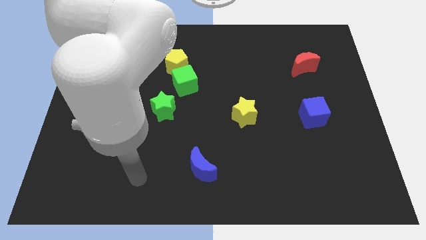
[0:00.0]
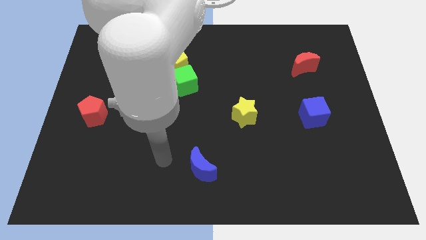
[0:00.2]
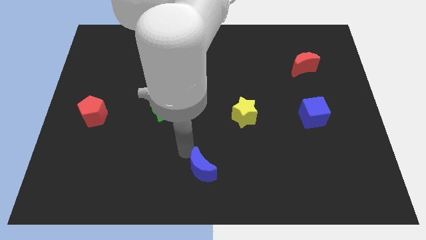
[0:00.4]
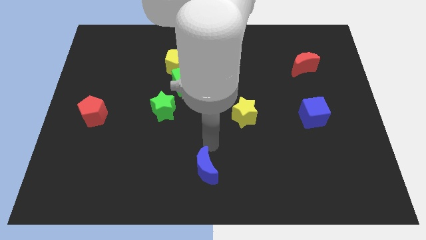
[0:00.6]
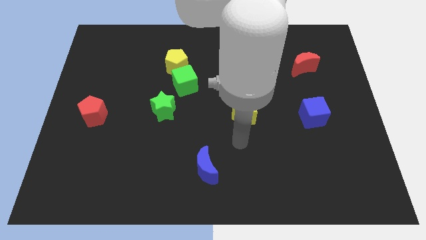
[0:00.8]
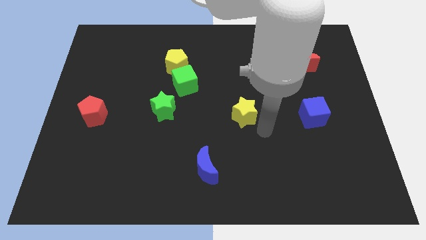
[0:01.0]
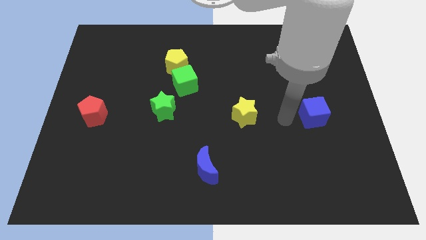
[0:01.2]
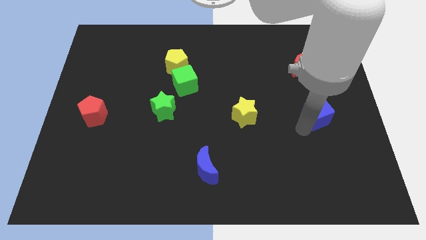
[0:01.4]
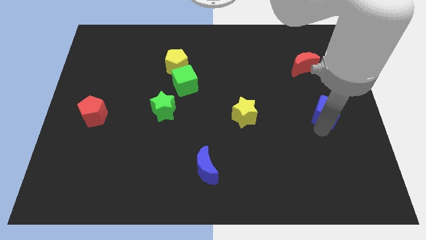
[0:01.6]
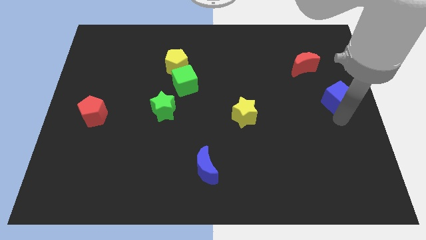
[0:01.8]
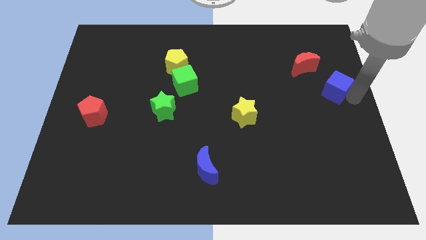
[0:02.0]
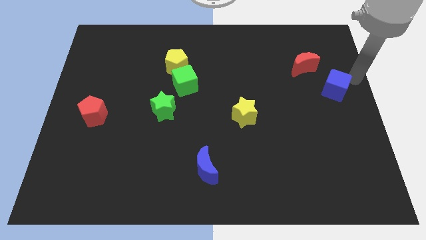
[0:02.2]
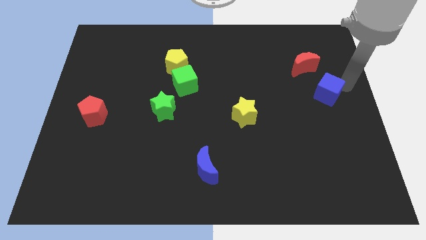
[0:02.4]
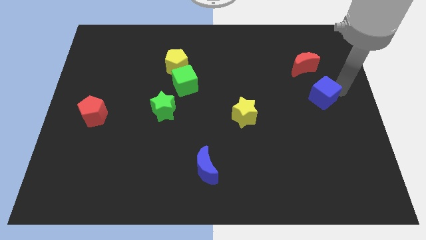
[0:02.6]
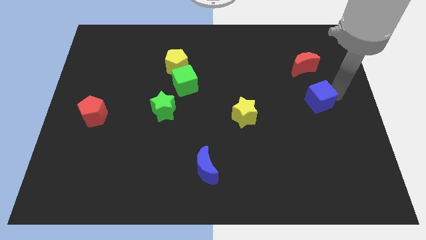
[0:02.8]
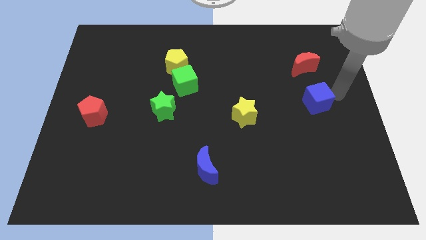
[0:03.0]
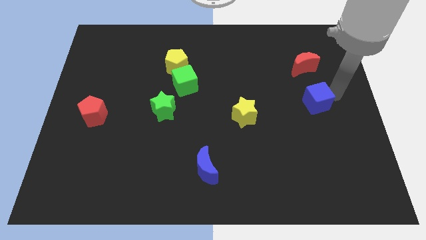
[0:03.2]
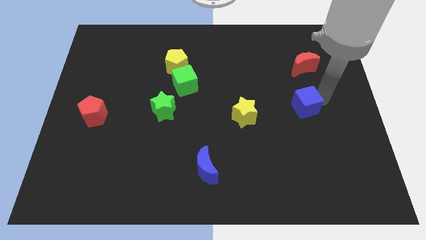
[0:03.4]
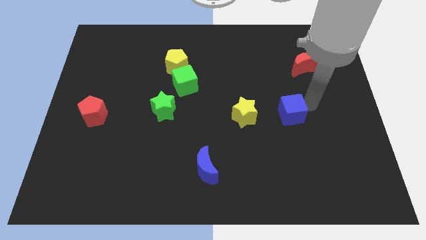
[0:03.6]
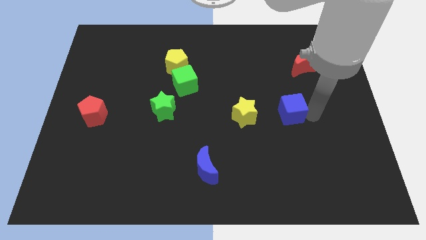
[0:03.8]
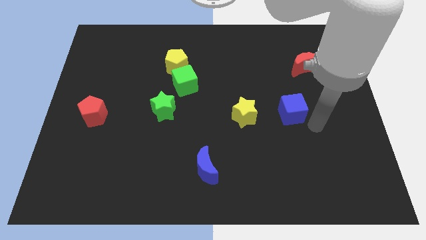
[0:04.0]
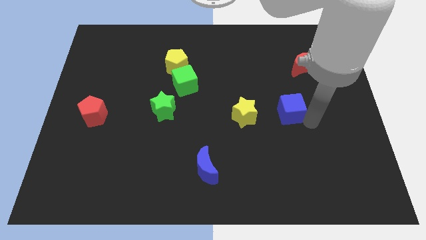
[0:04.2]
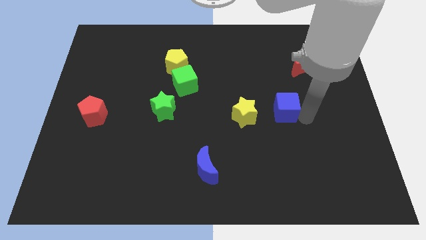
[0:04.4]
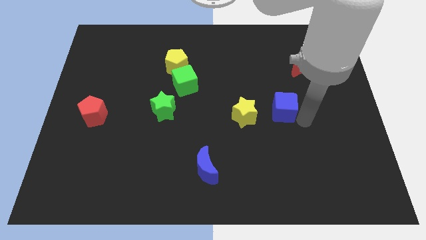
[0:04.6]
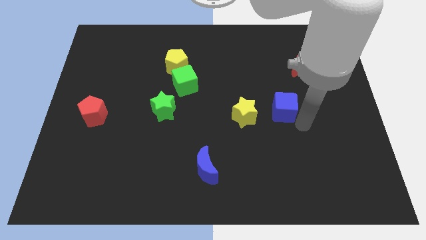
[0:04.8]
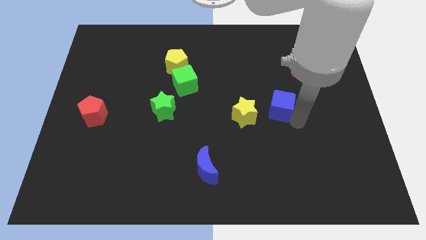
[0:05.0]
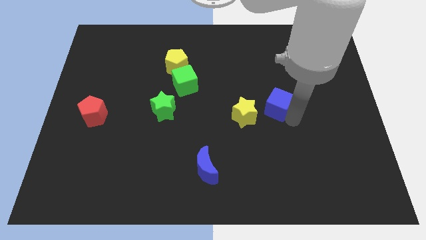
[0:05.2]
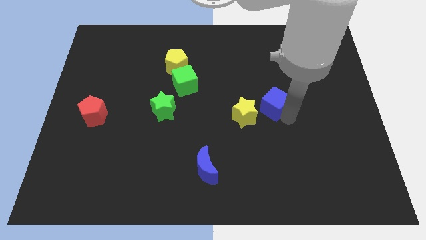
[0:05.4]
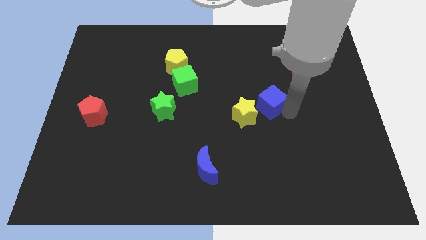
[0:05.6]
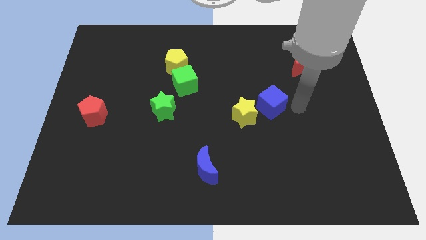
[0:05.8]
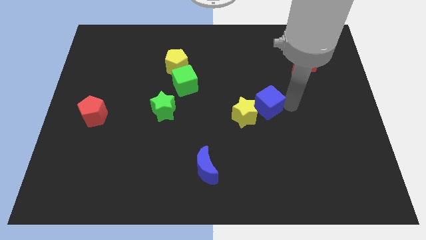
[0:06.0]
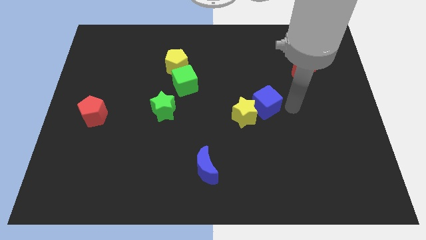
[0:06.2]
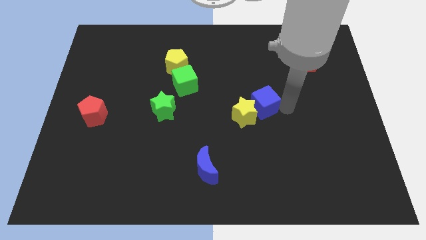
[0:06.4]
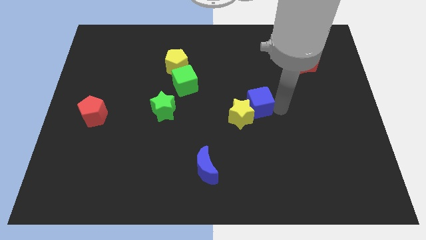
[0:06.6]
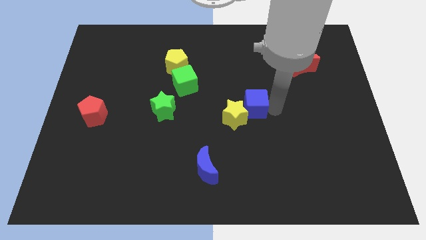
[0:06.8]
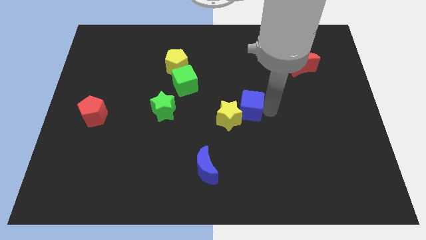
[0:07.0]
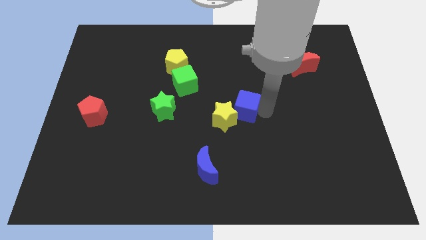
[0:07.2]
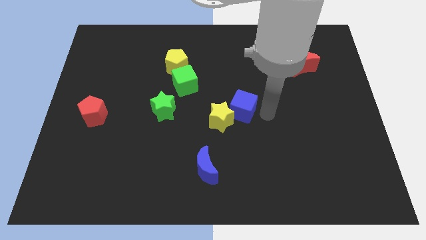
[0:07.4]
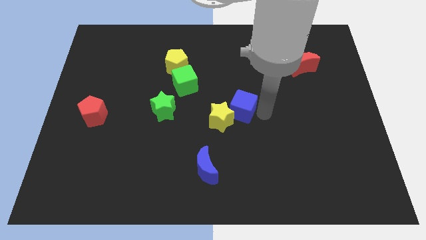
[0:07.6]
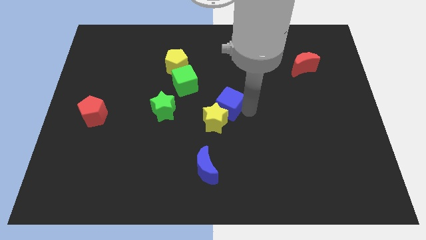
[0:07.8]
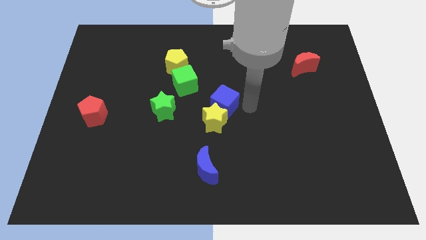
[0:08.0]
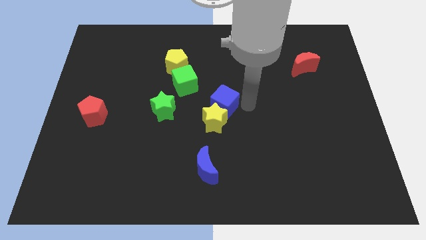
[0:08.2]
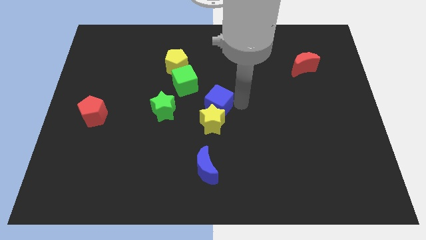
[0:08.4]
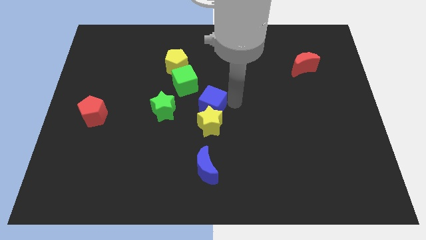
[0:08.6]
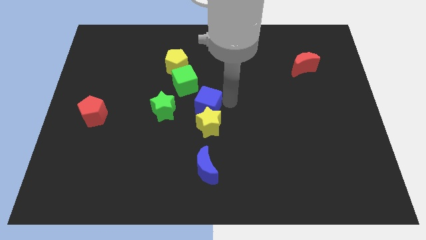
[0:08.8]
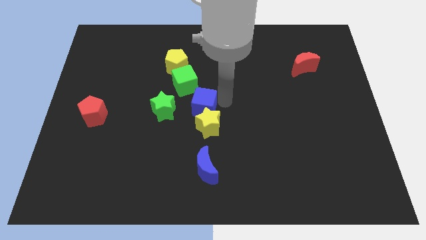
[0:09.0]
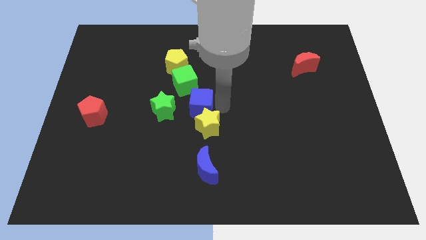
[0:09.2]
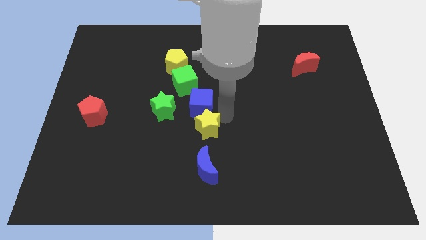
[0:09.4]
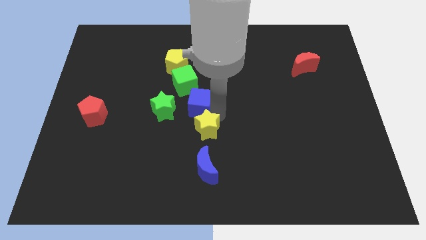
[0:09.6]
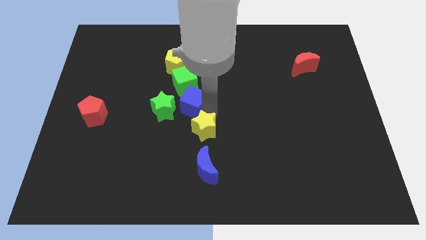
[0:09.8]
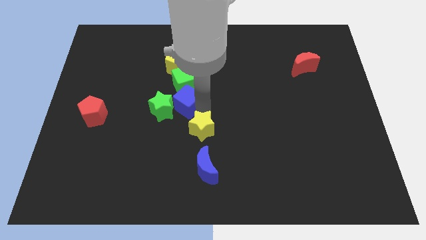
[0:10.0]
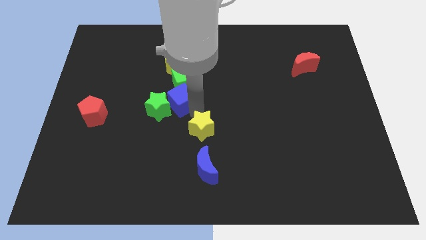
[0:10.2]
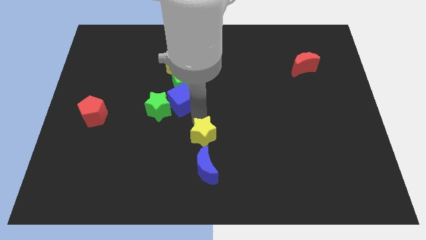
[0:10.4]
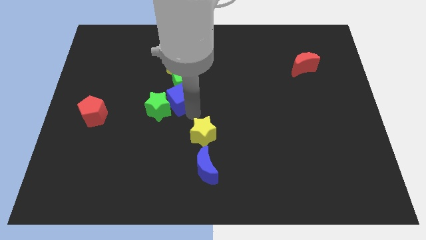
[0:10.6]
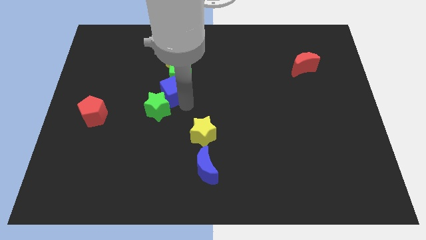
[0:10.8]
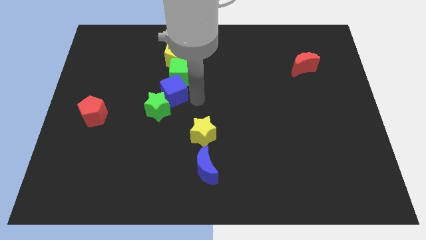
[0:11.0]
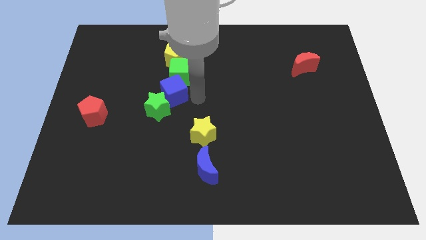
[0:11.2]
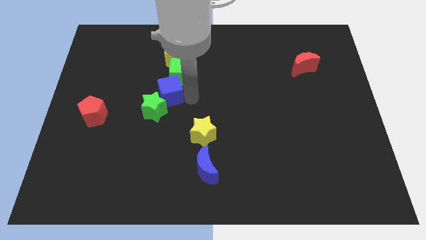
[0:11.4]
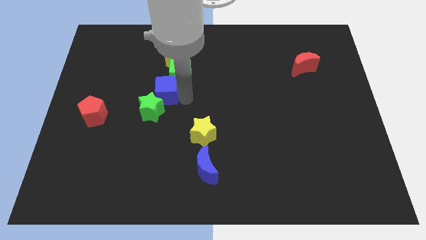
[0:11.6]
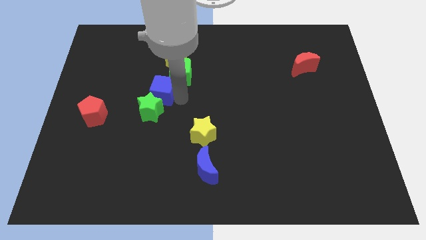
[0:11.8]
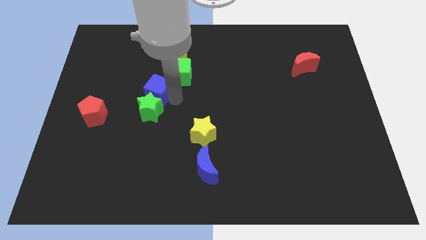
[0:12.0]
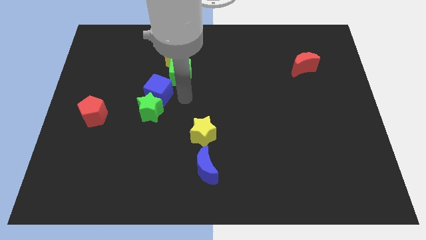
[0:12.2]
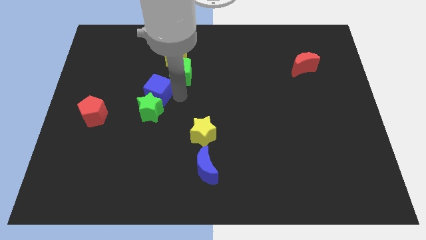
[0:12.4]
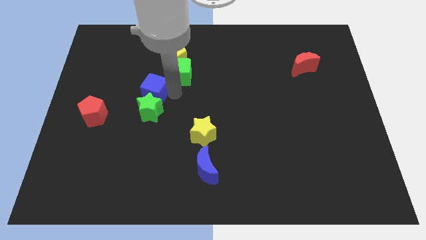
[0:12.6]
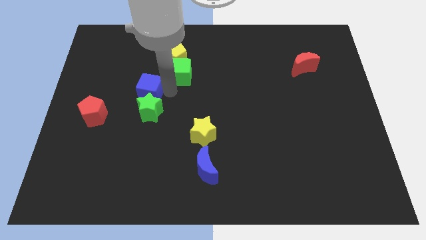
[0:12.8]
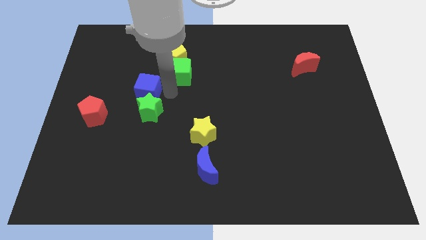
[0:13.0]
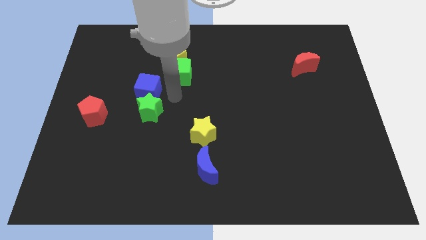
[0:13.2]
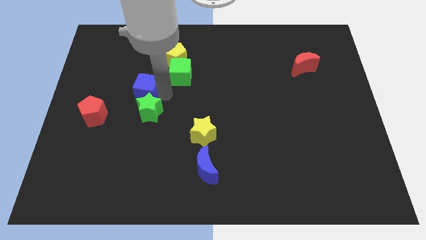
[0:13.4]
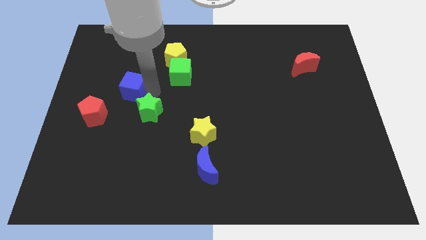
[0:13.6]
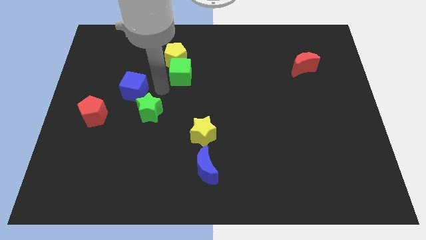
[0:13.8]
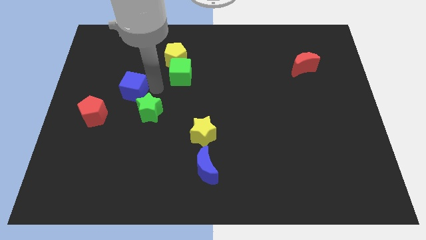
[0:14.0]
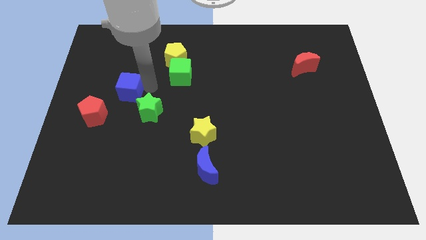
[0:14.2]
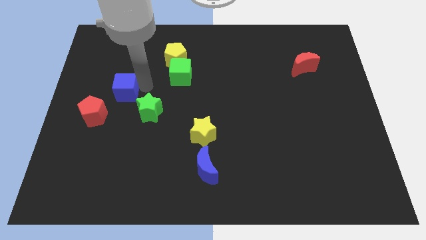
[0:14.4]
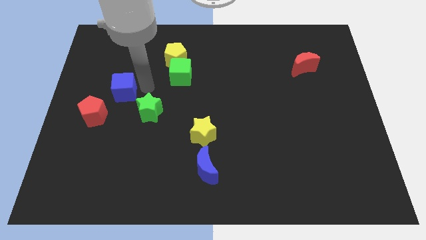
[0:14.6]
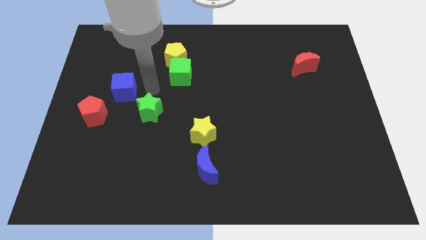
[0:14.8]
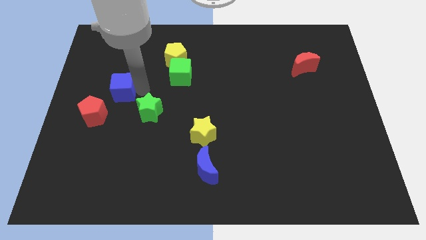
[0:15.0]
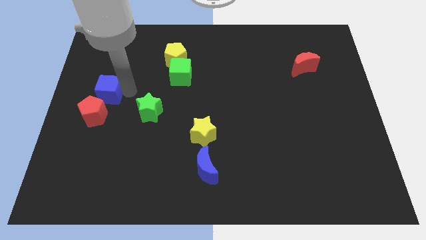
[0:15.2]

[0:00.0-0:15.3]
push the blue cube to the center left
